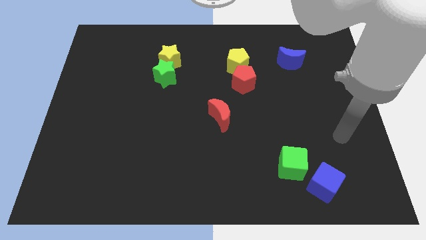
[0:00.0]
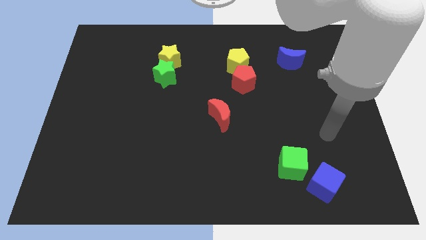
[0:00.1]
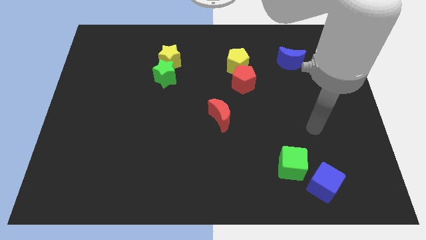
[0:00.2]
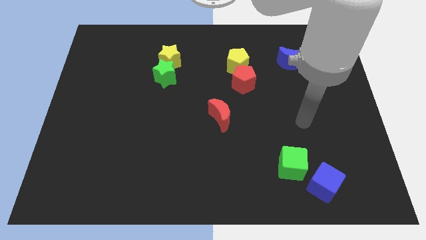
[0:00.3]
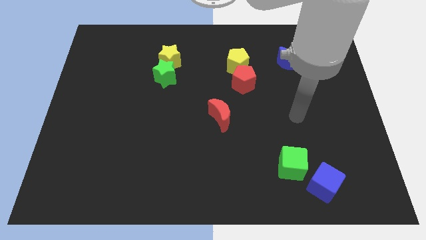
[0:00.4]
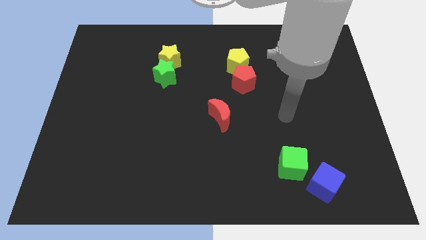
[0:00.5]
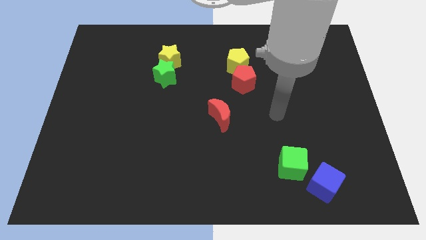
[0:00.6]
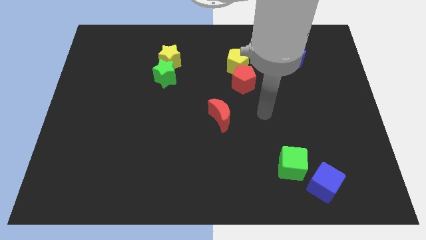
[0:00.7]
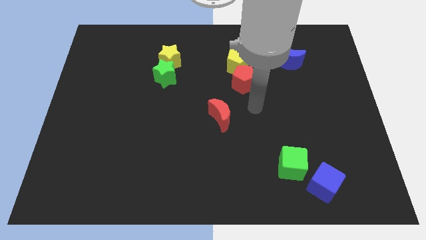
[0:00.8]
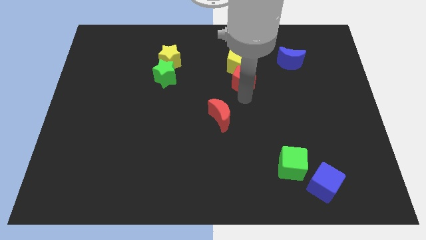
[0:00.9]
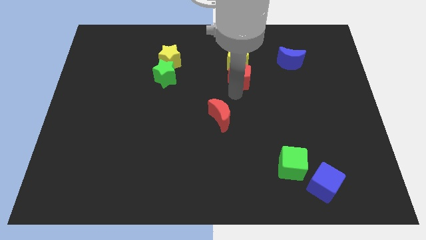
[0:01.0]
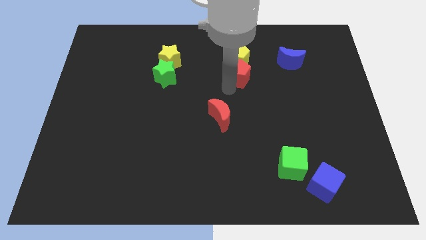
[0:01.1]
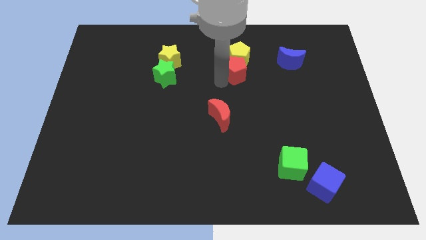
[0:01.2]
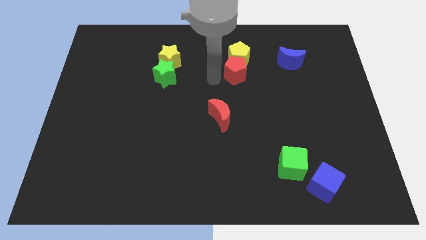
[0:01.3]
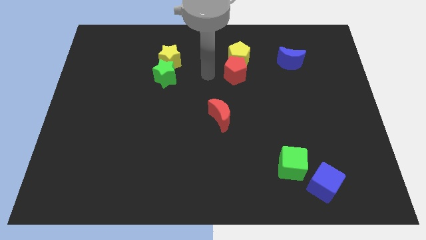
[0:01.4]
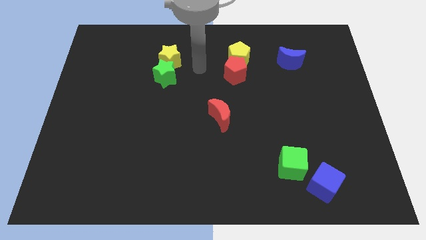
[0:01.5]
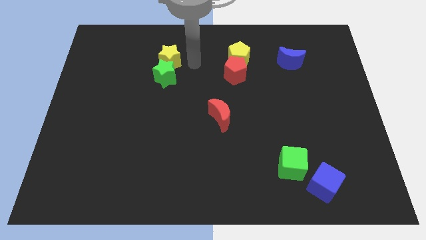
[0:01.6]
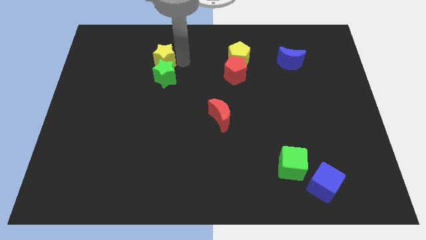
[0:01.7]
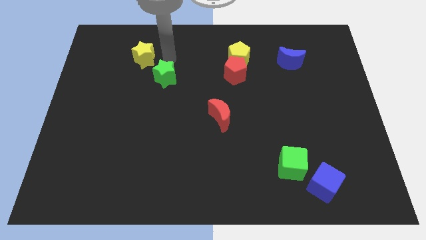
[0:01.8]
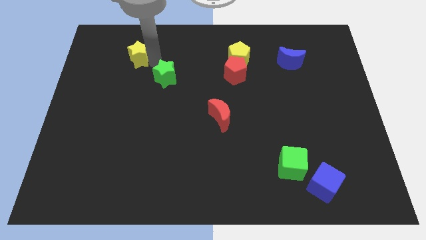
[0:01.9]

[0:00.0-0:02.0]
pull the green star apart from the yellow star

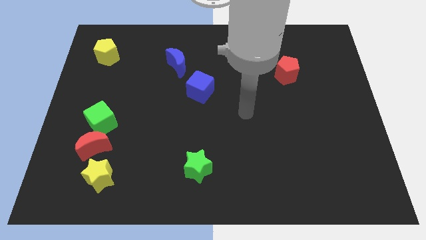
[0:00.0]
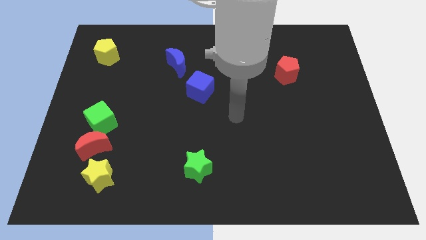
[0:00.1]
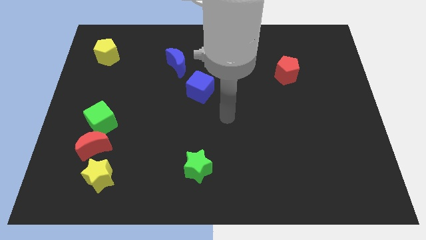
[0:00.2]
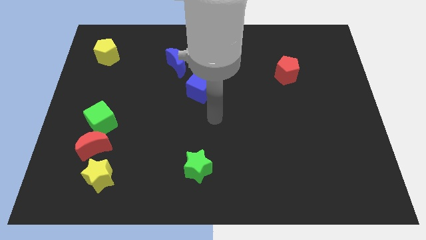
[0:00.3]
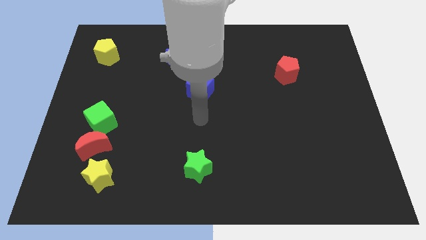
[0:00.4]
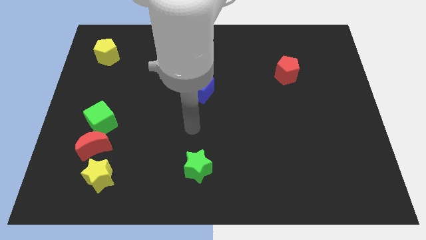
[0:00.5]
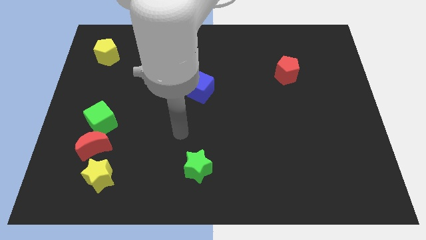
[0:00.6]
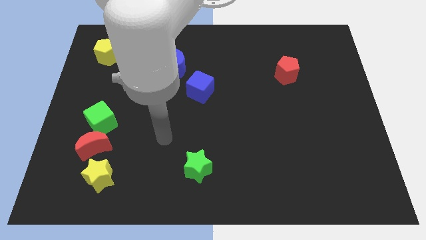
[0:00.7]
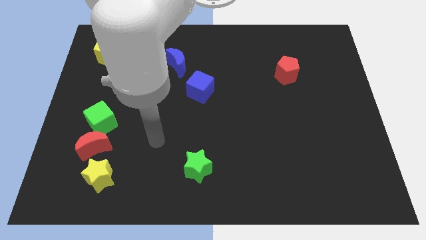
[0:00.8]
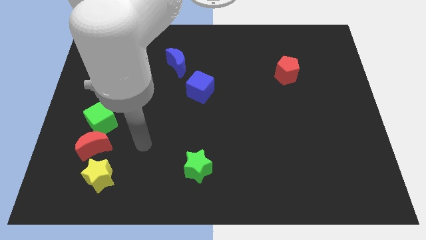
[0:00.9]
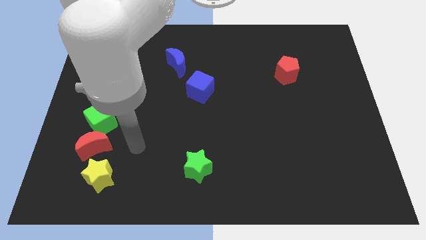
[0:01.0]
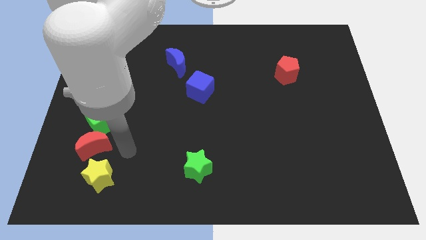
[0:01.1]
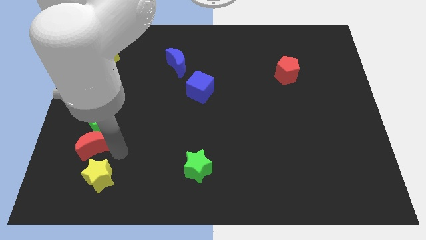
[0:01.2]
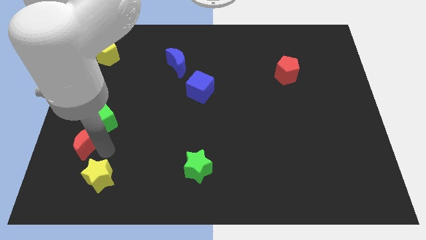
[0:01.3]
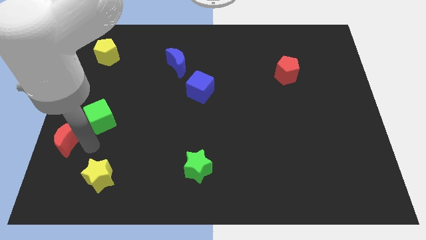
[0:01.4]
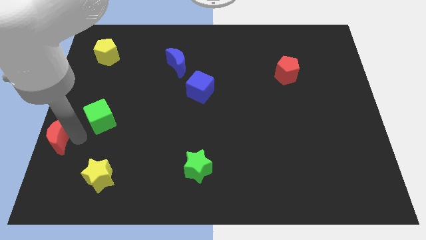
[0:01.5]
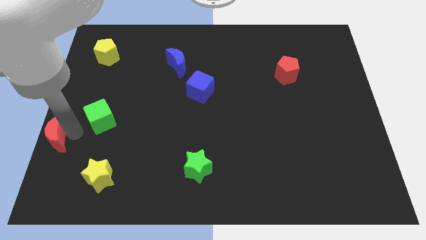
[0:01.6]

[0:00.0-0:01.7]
separate the green cube from the red moon

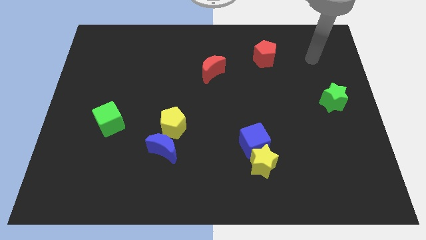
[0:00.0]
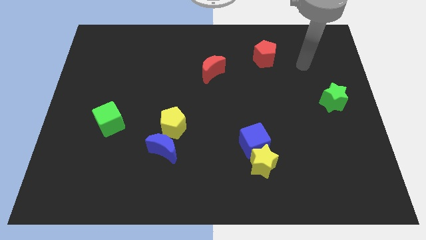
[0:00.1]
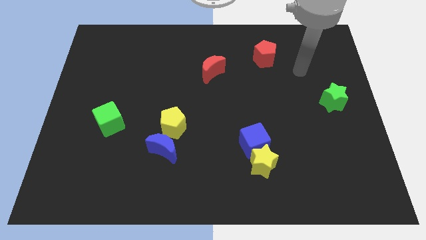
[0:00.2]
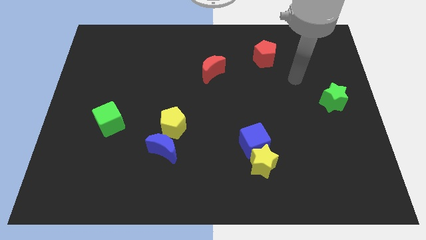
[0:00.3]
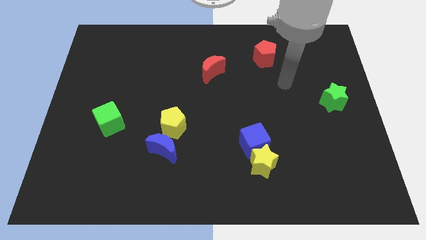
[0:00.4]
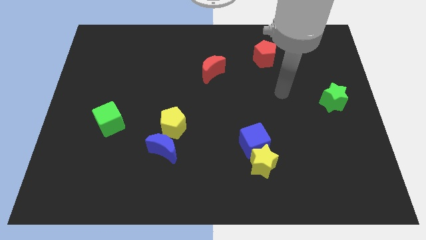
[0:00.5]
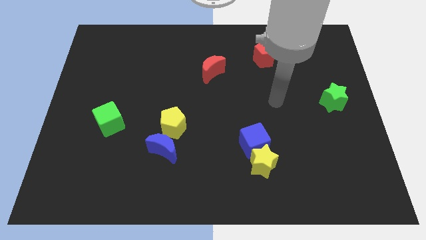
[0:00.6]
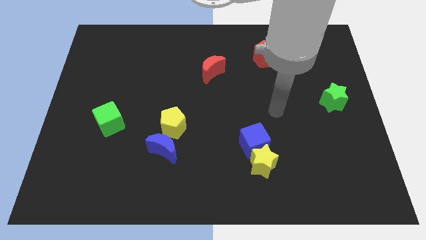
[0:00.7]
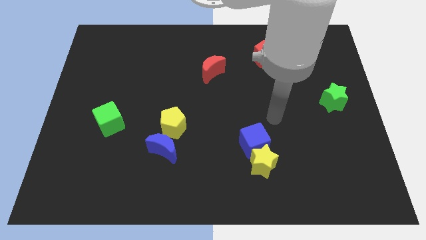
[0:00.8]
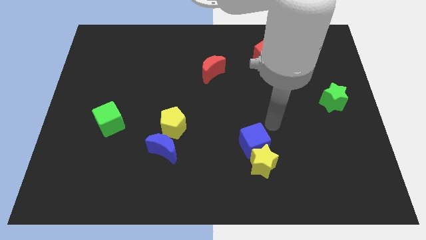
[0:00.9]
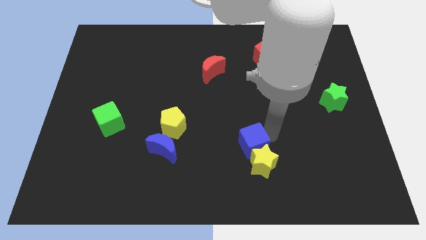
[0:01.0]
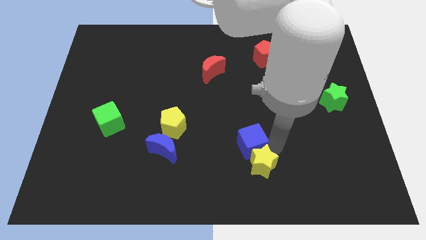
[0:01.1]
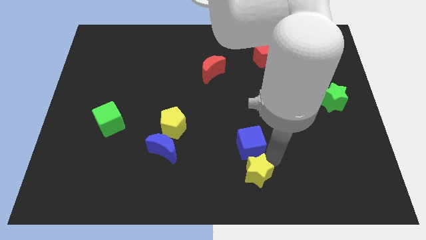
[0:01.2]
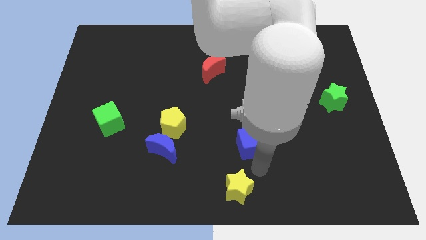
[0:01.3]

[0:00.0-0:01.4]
move the blue cube away from the yellow star

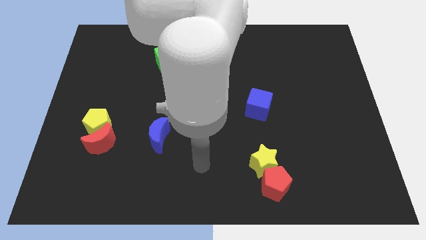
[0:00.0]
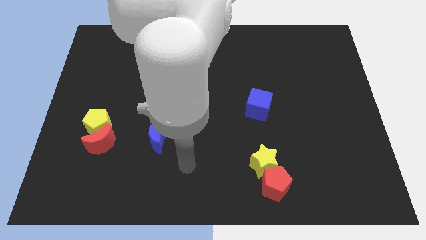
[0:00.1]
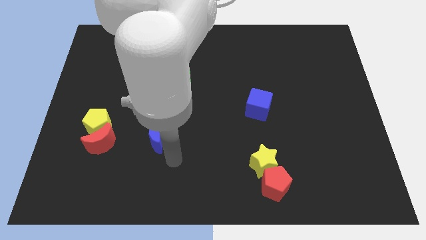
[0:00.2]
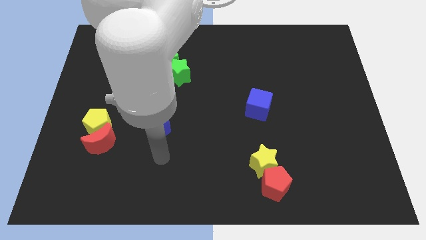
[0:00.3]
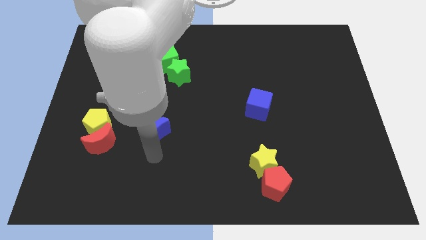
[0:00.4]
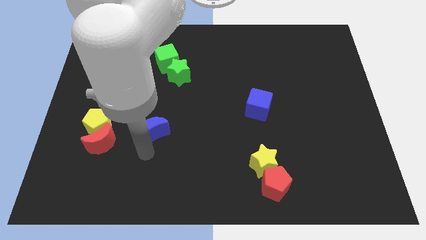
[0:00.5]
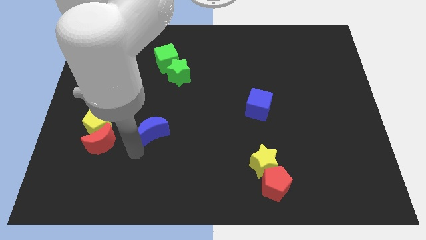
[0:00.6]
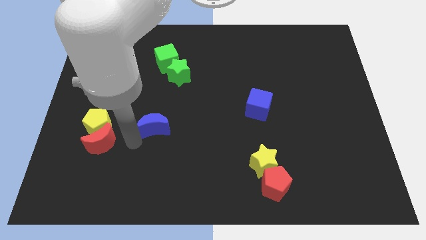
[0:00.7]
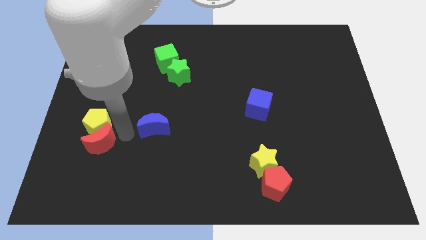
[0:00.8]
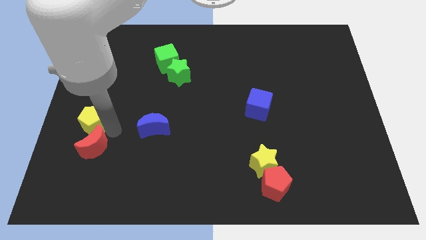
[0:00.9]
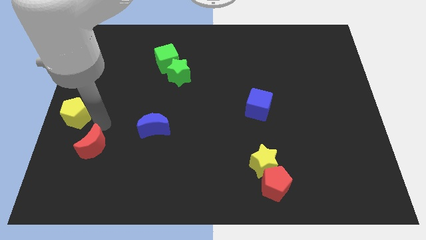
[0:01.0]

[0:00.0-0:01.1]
pull the red moon apart from the yellow pentagon

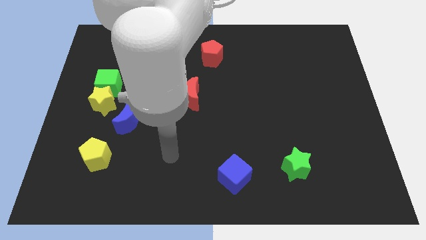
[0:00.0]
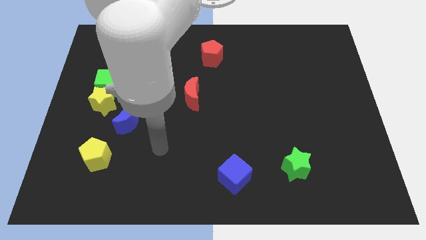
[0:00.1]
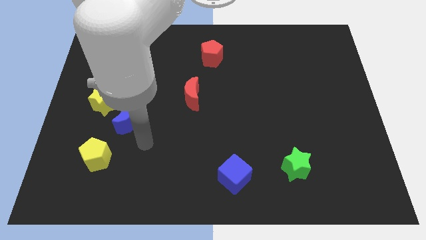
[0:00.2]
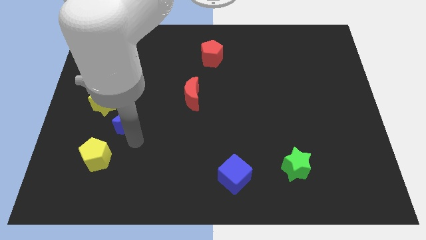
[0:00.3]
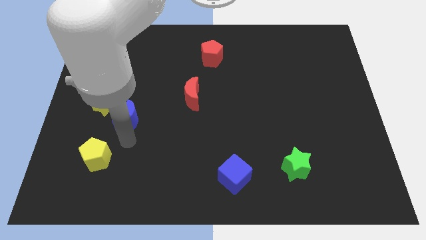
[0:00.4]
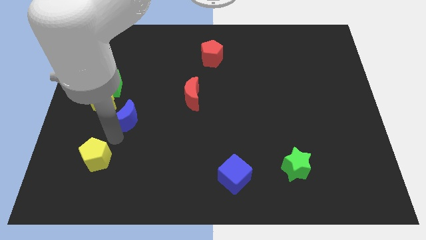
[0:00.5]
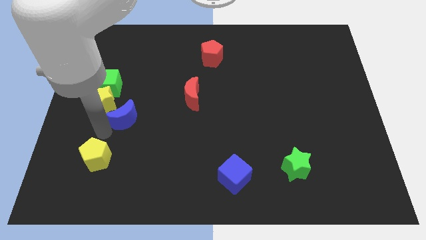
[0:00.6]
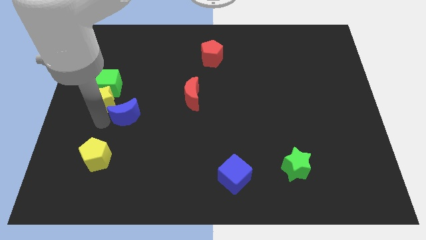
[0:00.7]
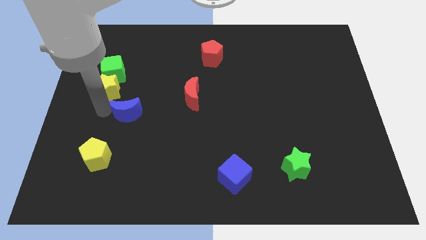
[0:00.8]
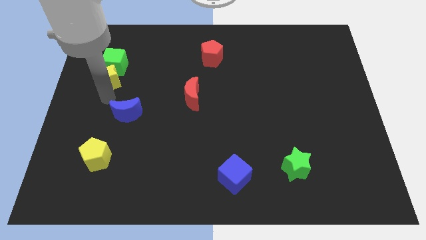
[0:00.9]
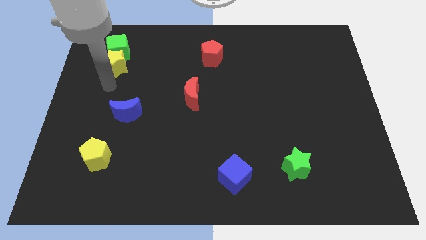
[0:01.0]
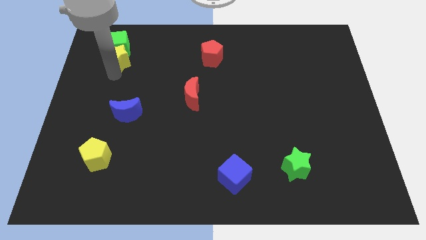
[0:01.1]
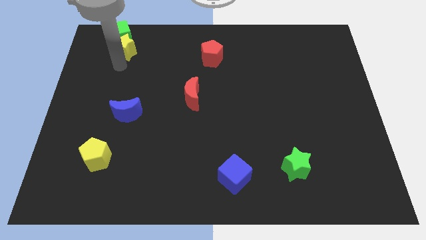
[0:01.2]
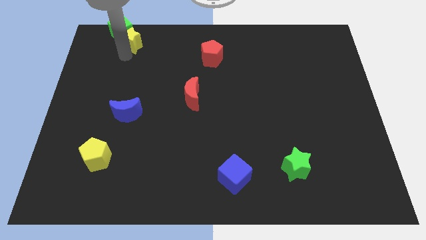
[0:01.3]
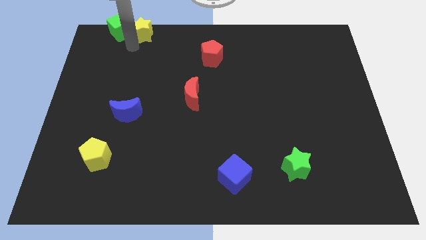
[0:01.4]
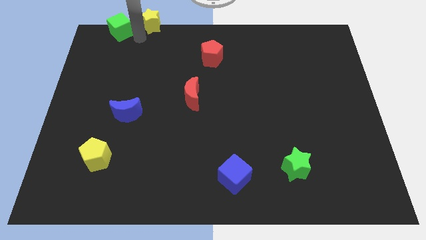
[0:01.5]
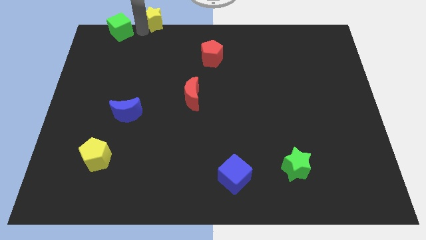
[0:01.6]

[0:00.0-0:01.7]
separate the green cube from the yellow star

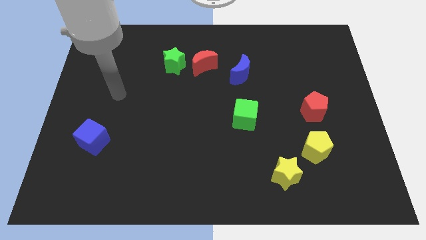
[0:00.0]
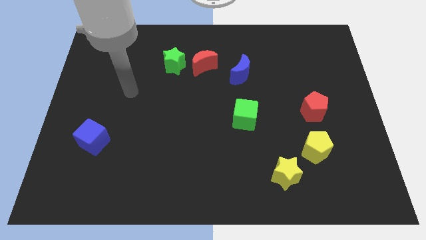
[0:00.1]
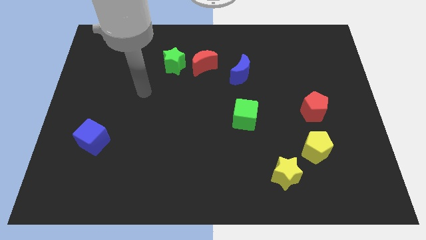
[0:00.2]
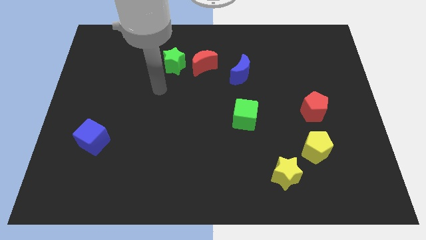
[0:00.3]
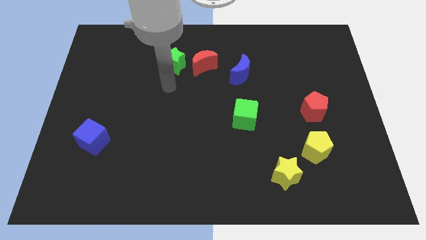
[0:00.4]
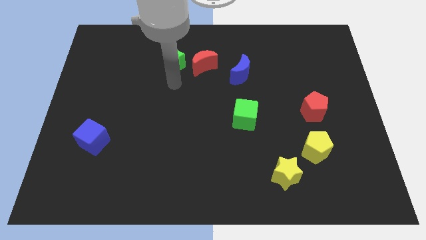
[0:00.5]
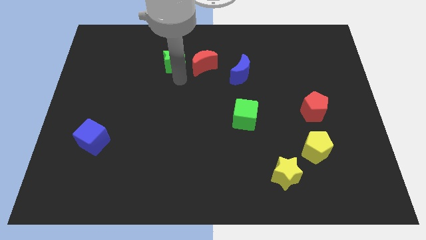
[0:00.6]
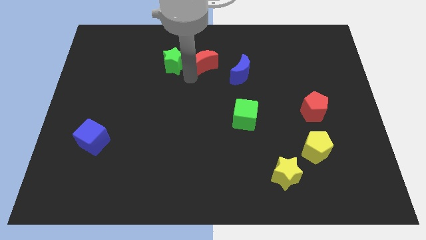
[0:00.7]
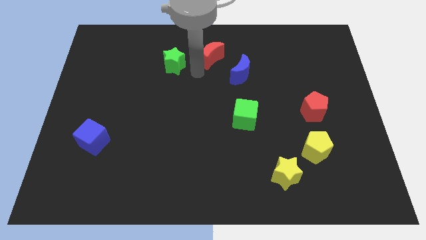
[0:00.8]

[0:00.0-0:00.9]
move the green star away from the red moon

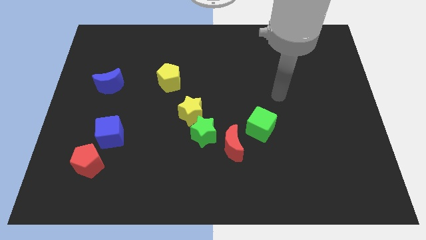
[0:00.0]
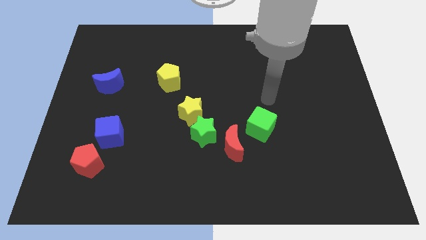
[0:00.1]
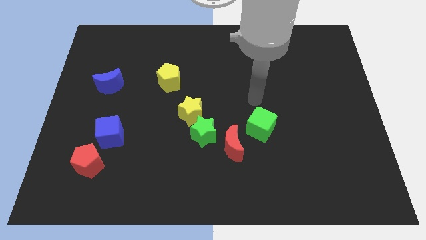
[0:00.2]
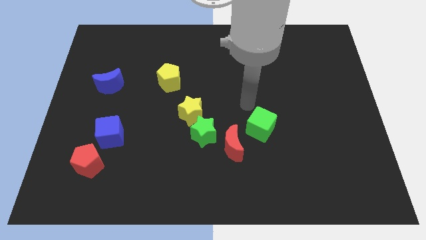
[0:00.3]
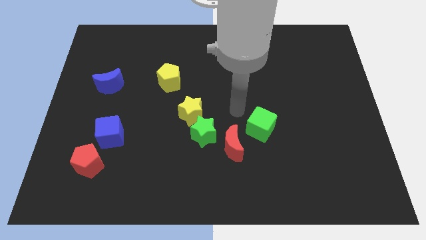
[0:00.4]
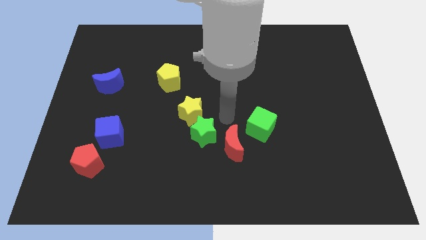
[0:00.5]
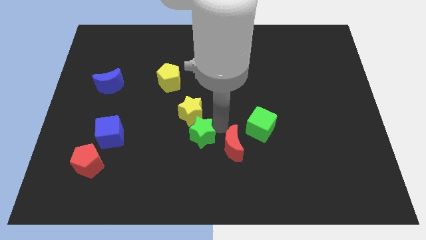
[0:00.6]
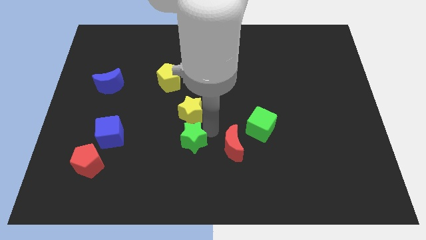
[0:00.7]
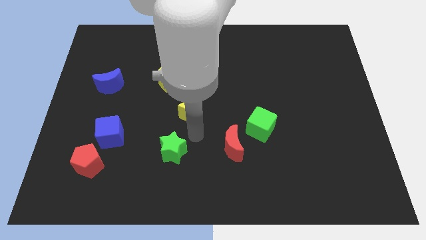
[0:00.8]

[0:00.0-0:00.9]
move the yellow star away from the green star
